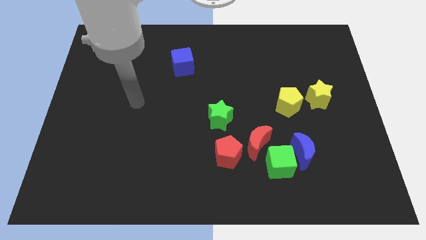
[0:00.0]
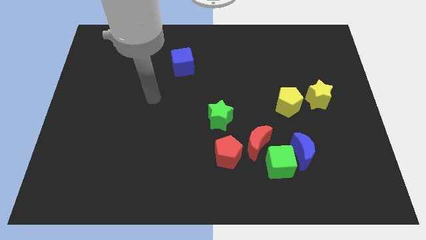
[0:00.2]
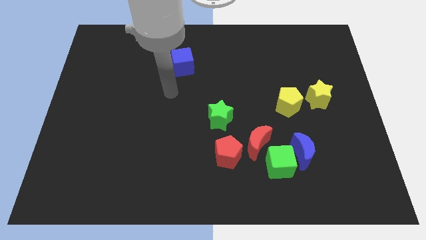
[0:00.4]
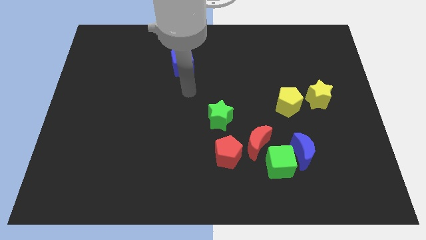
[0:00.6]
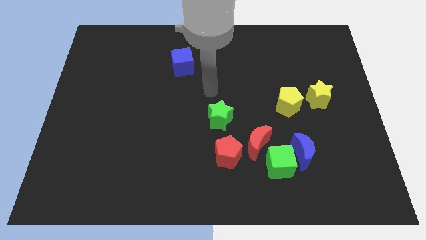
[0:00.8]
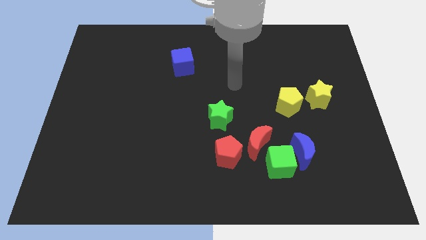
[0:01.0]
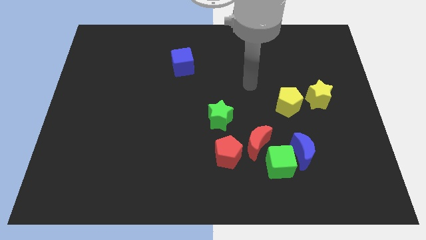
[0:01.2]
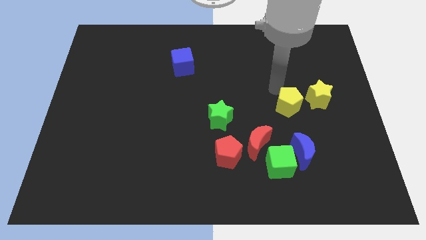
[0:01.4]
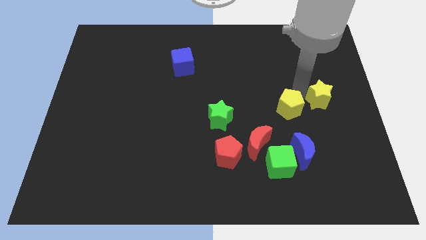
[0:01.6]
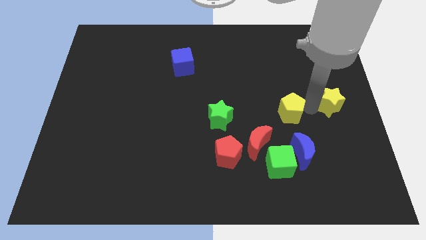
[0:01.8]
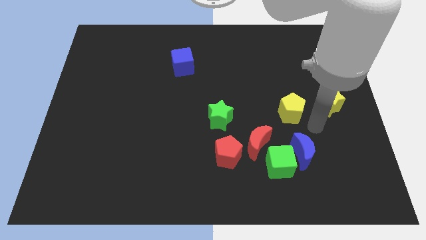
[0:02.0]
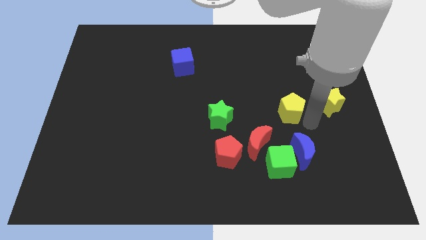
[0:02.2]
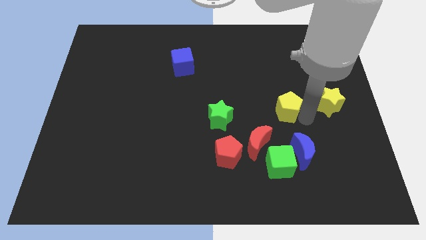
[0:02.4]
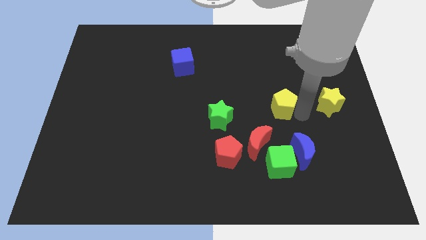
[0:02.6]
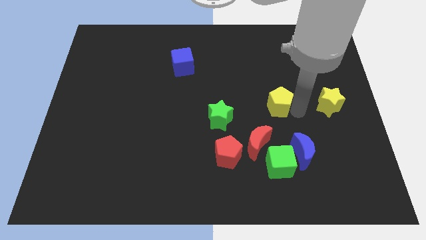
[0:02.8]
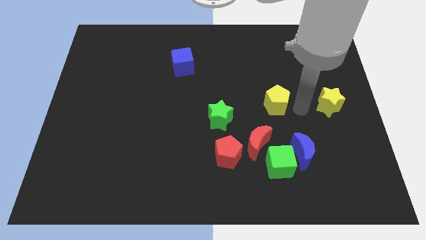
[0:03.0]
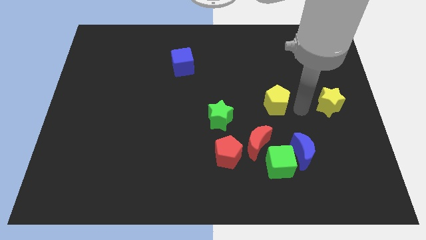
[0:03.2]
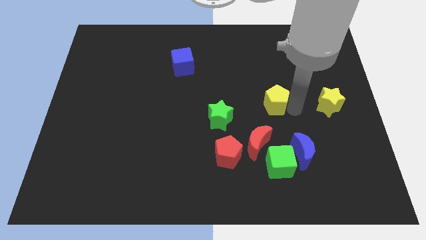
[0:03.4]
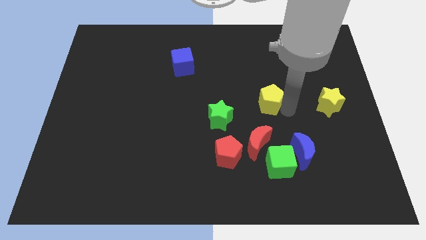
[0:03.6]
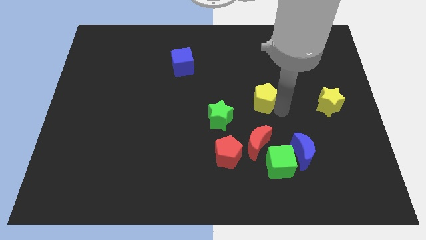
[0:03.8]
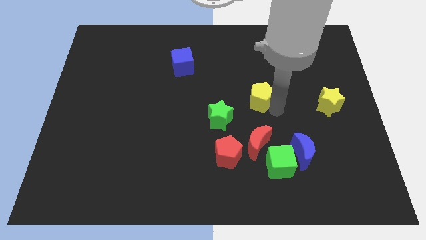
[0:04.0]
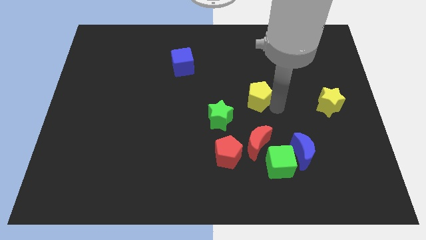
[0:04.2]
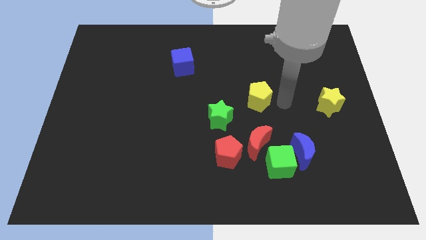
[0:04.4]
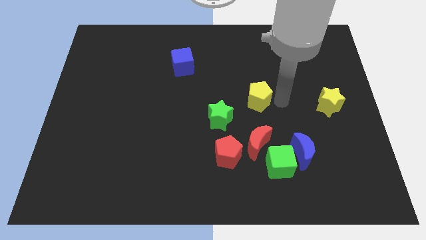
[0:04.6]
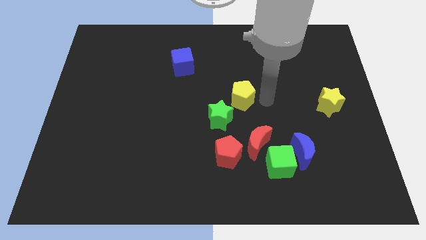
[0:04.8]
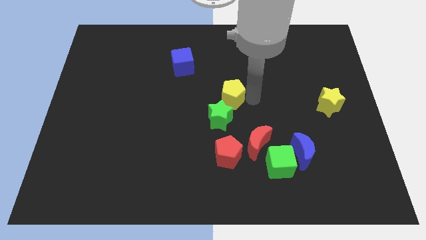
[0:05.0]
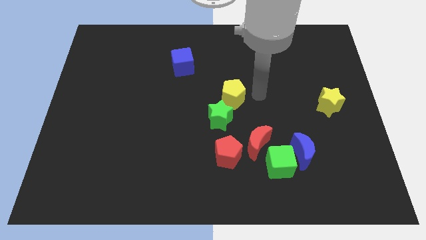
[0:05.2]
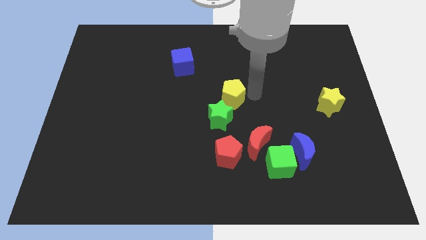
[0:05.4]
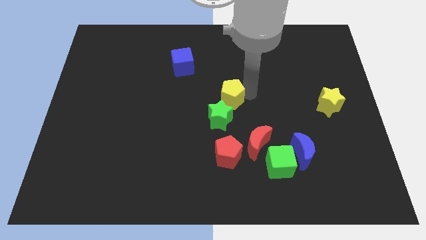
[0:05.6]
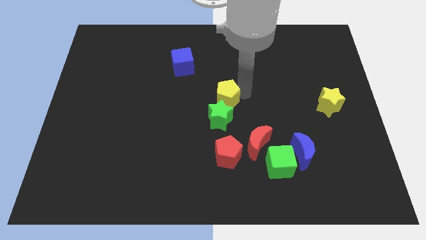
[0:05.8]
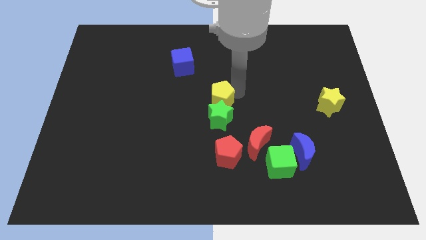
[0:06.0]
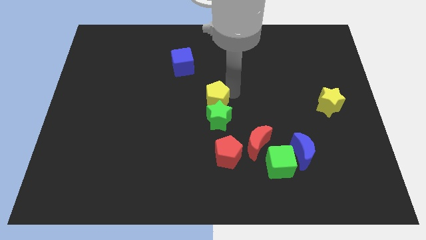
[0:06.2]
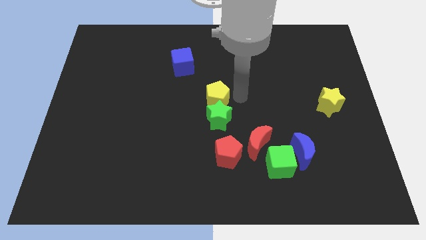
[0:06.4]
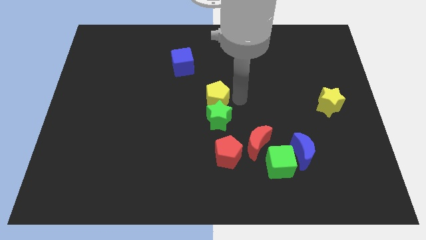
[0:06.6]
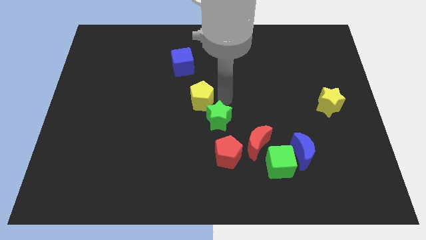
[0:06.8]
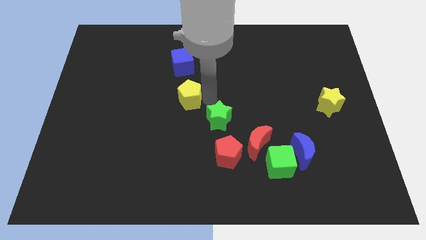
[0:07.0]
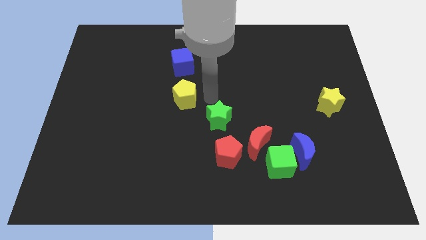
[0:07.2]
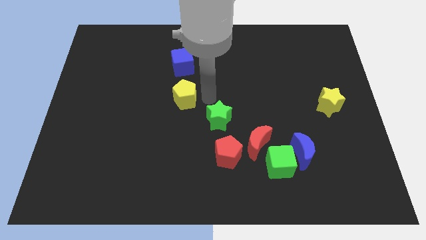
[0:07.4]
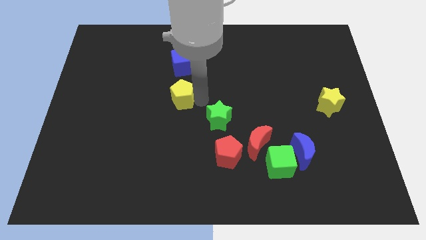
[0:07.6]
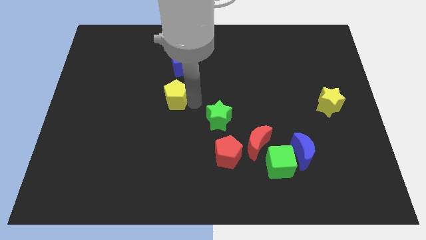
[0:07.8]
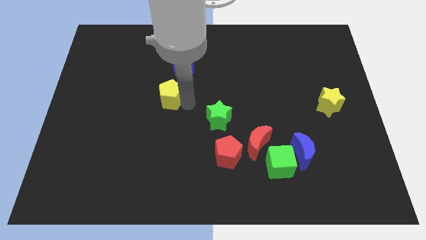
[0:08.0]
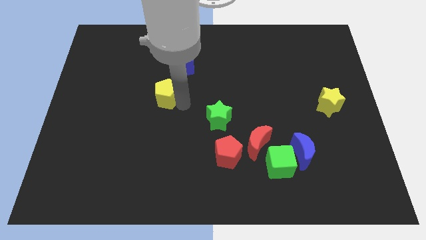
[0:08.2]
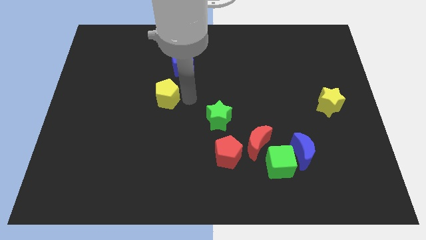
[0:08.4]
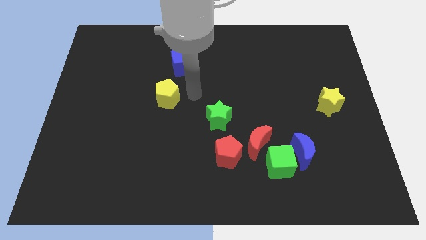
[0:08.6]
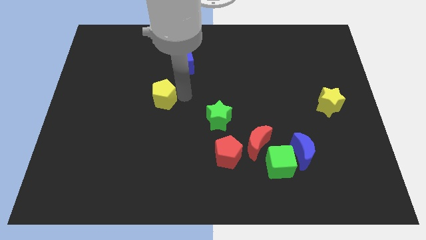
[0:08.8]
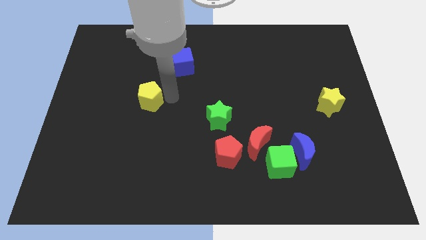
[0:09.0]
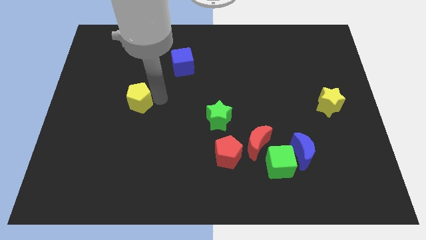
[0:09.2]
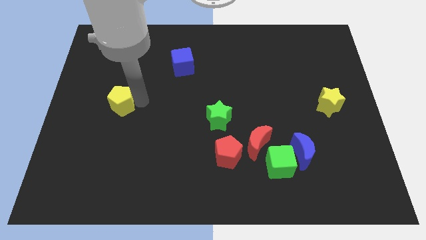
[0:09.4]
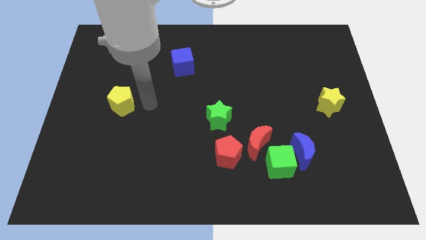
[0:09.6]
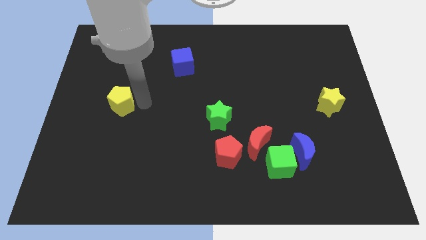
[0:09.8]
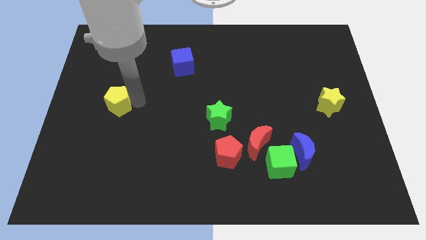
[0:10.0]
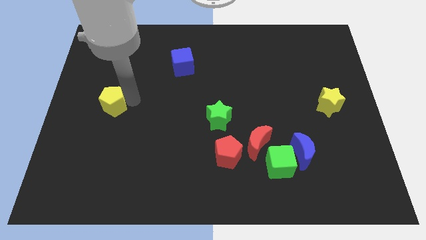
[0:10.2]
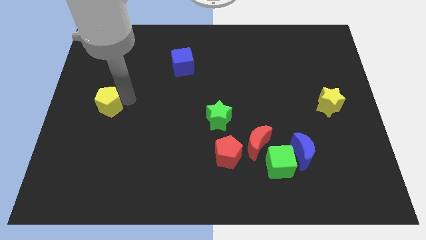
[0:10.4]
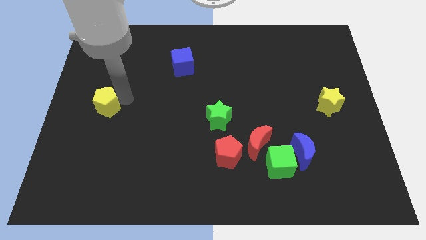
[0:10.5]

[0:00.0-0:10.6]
slide the yellow pentagon to the left side
